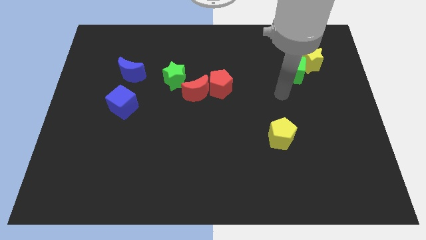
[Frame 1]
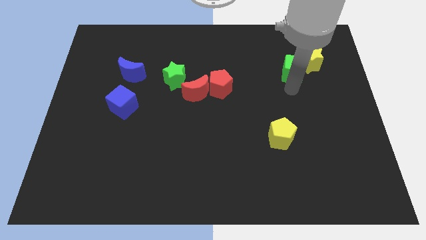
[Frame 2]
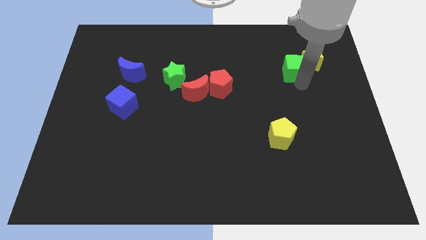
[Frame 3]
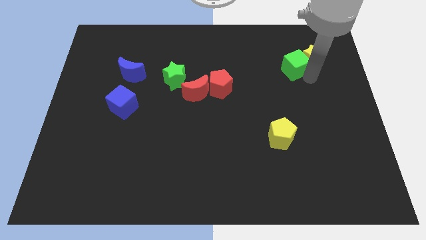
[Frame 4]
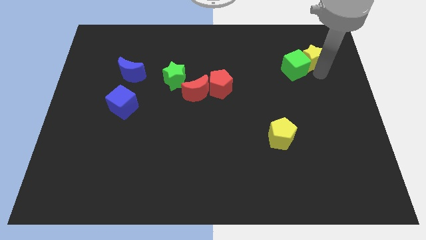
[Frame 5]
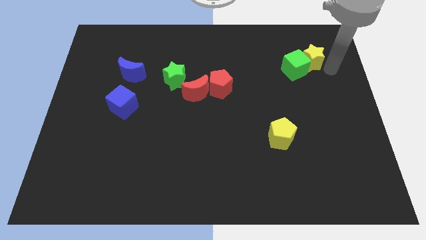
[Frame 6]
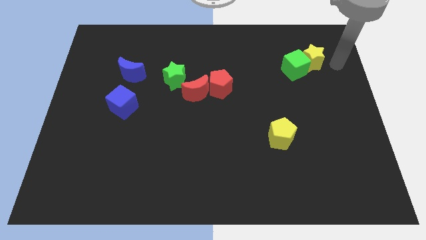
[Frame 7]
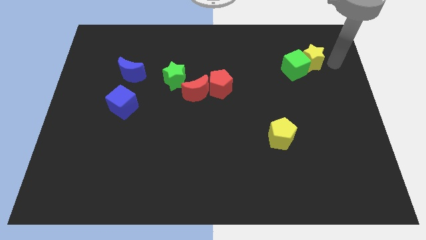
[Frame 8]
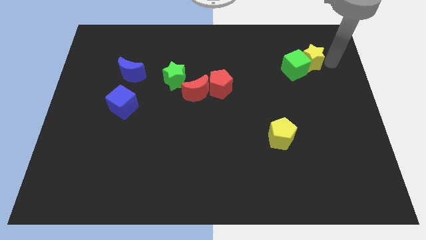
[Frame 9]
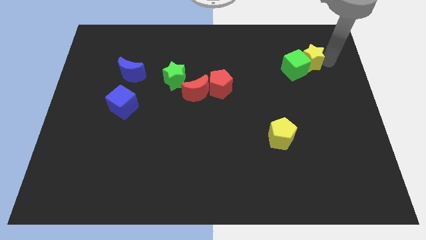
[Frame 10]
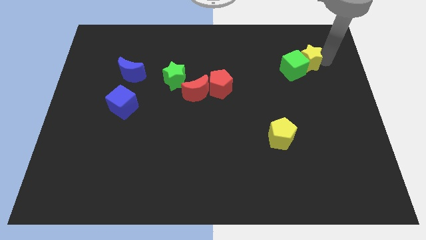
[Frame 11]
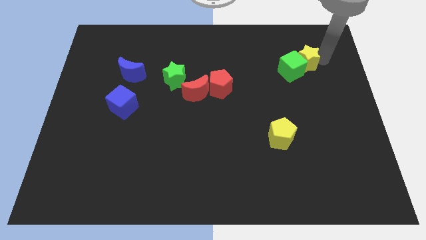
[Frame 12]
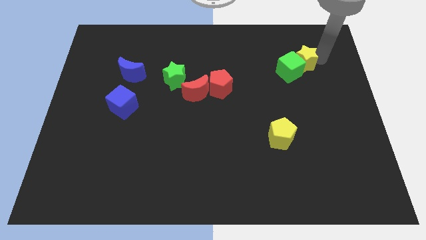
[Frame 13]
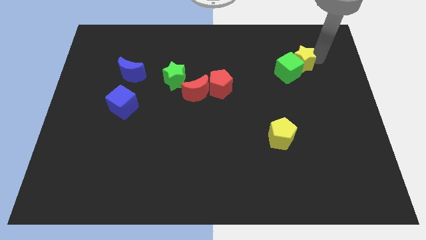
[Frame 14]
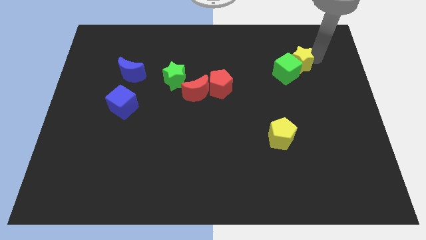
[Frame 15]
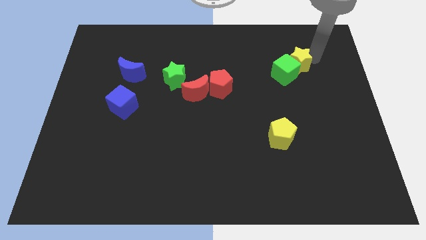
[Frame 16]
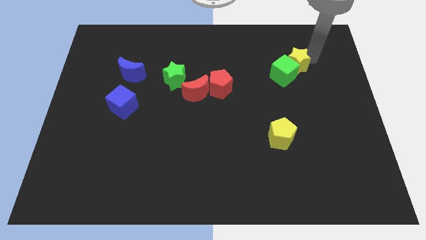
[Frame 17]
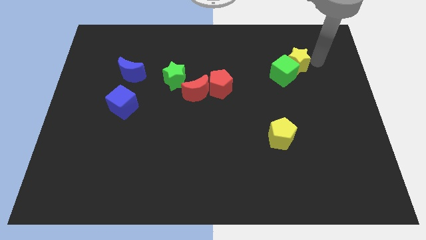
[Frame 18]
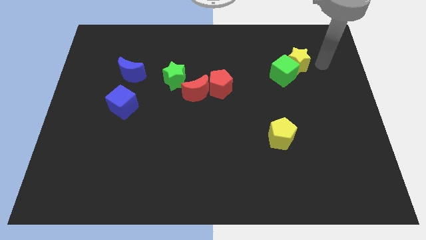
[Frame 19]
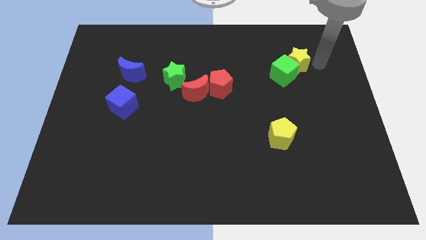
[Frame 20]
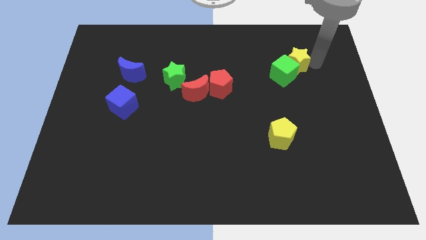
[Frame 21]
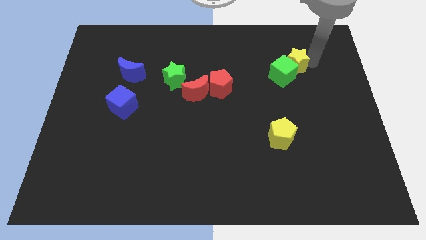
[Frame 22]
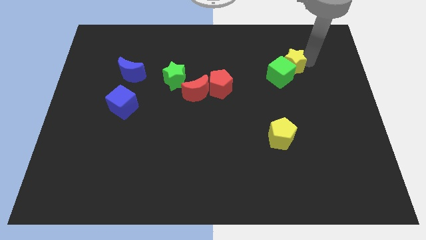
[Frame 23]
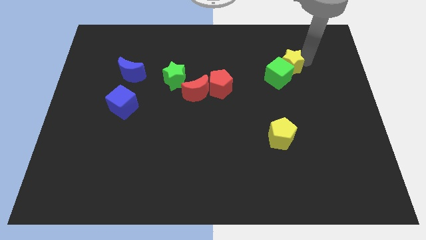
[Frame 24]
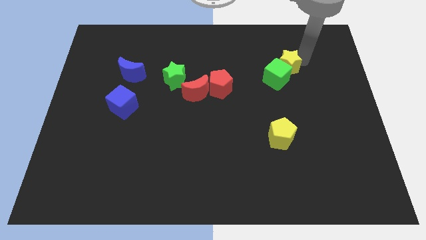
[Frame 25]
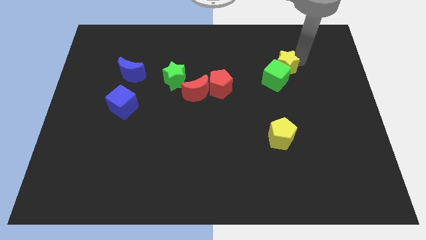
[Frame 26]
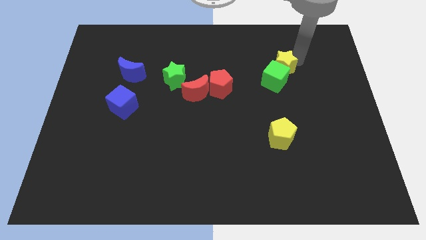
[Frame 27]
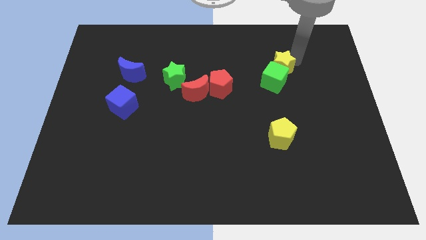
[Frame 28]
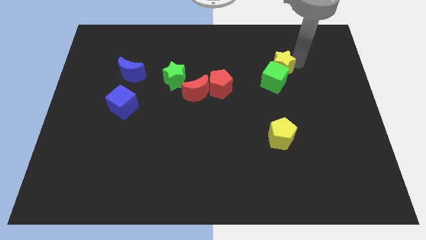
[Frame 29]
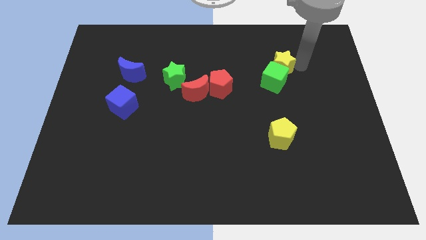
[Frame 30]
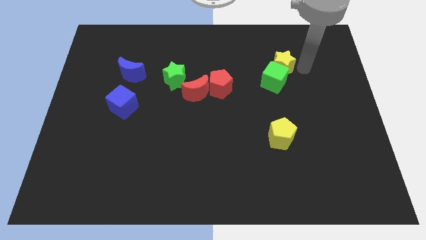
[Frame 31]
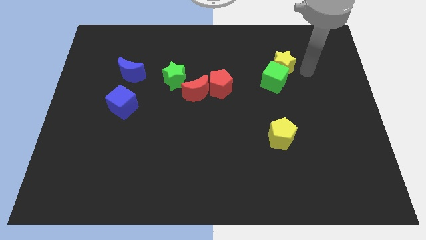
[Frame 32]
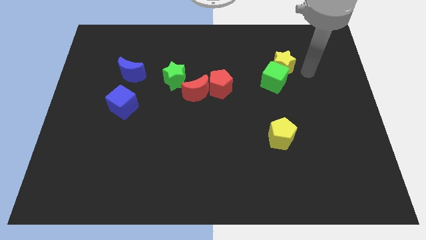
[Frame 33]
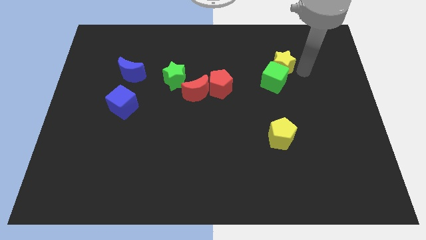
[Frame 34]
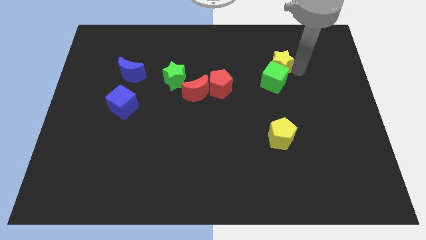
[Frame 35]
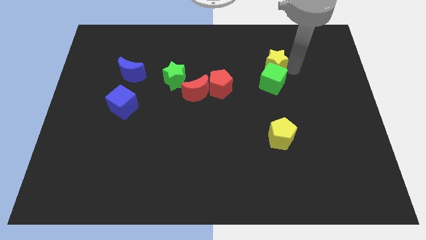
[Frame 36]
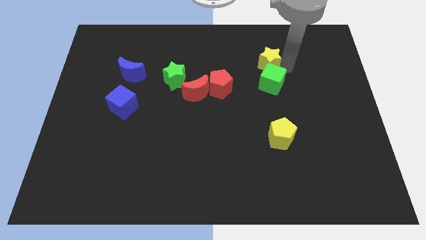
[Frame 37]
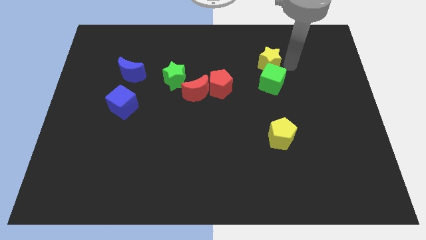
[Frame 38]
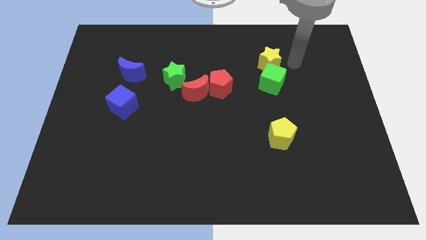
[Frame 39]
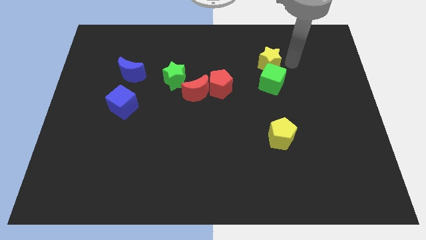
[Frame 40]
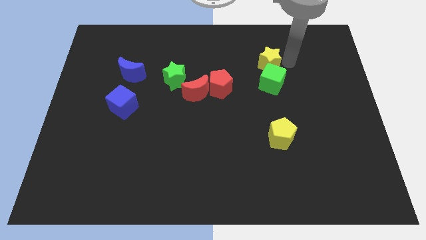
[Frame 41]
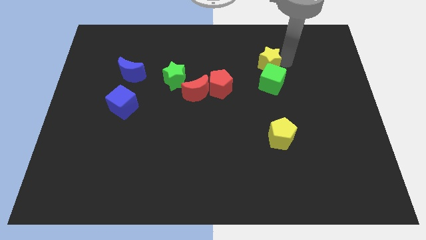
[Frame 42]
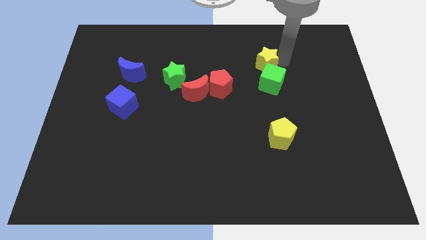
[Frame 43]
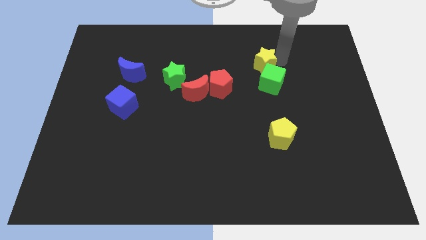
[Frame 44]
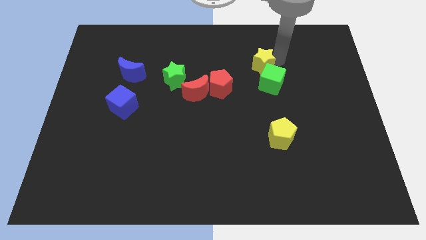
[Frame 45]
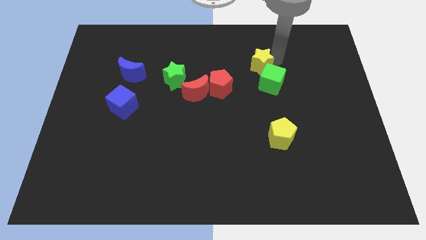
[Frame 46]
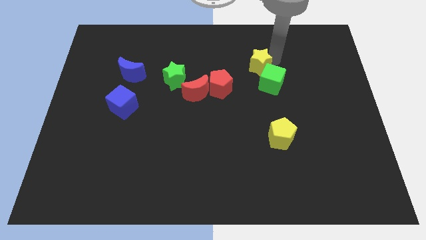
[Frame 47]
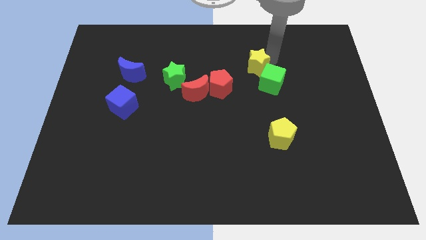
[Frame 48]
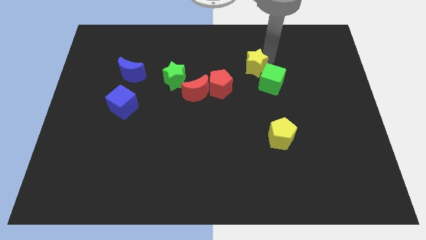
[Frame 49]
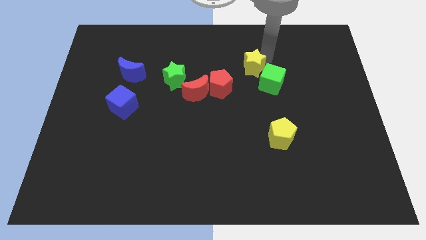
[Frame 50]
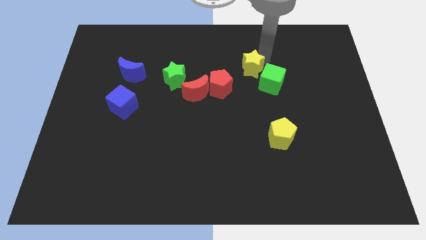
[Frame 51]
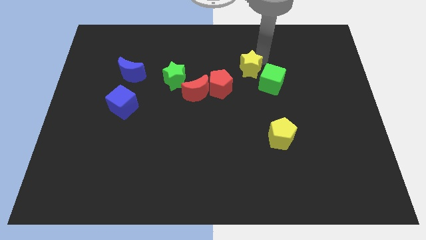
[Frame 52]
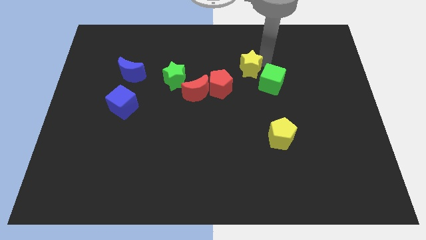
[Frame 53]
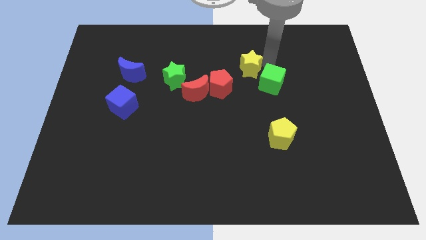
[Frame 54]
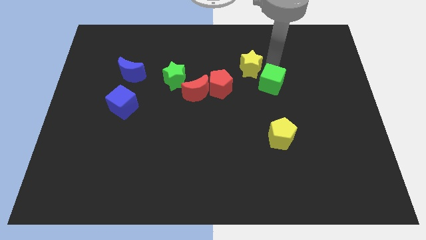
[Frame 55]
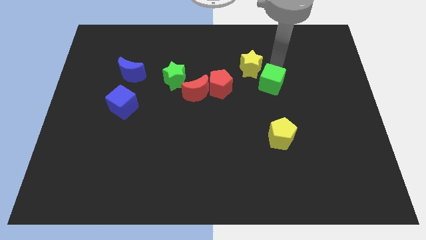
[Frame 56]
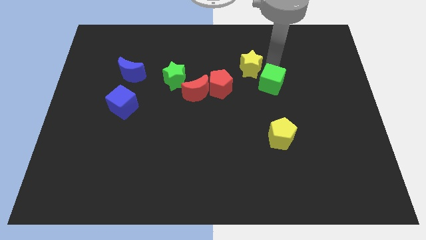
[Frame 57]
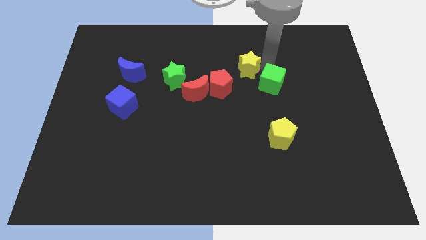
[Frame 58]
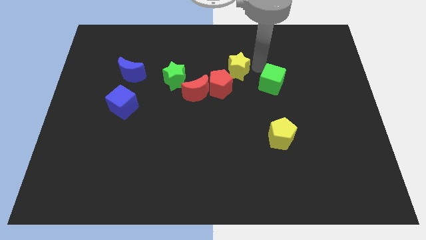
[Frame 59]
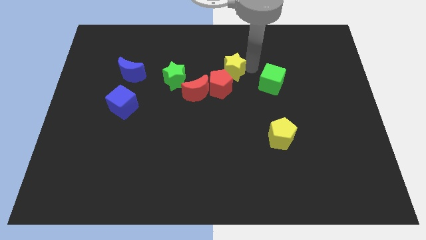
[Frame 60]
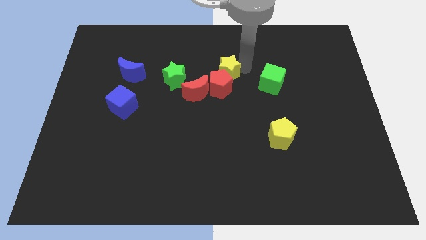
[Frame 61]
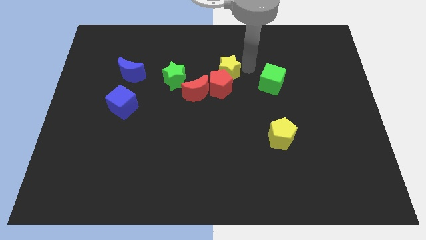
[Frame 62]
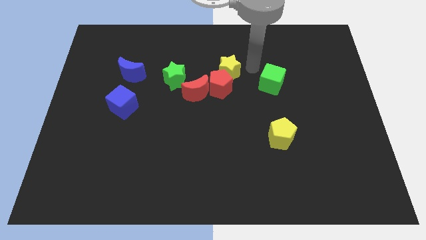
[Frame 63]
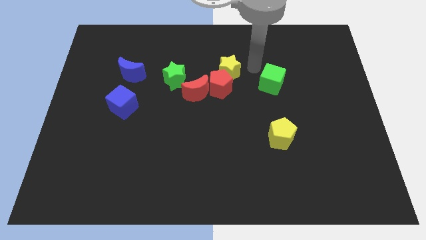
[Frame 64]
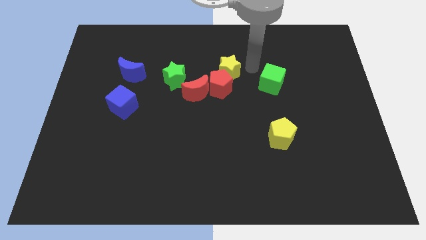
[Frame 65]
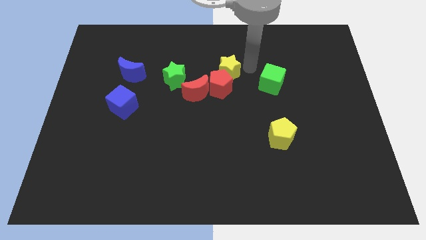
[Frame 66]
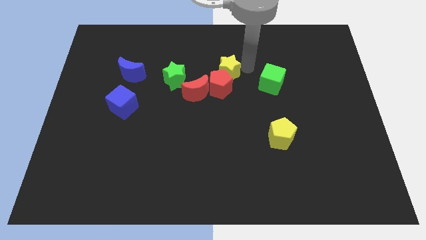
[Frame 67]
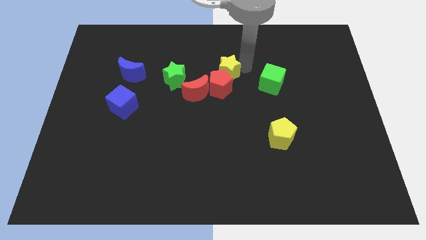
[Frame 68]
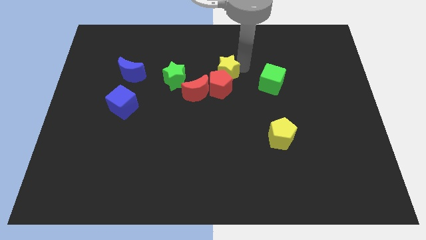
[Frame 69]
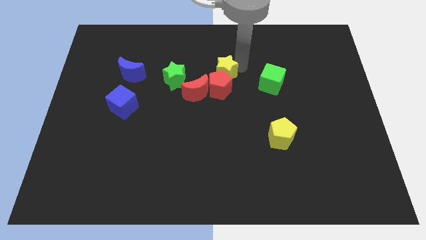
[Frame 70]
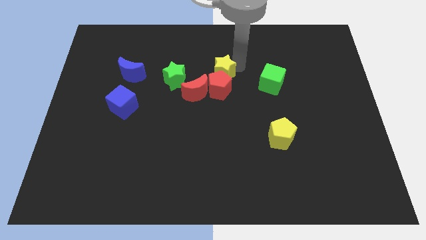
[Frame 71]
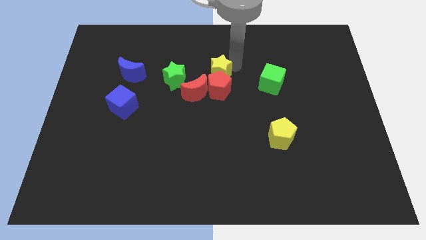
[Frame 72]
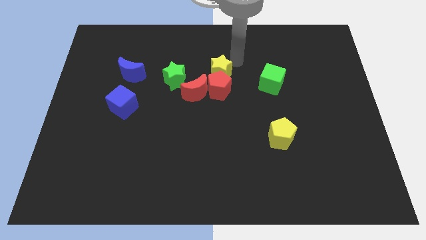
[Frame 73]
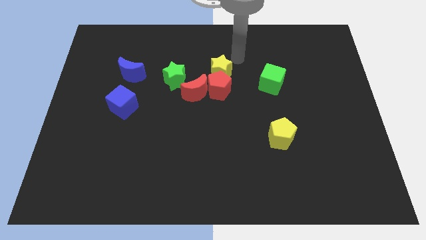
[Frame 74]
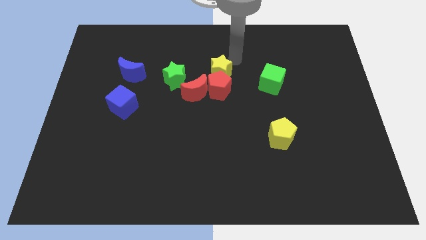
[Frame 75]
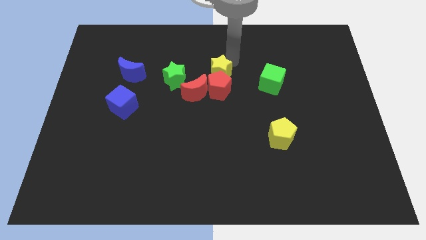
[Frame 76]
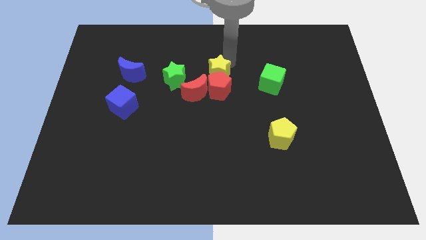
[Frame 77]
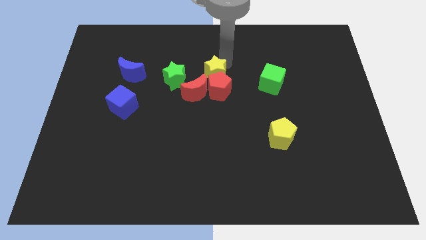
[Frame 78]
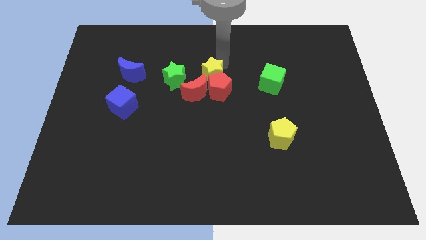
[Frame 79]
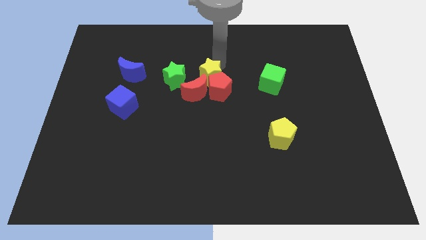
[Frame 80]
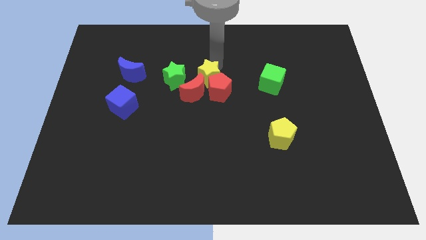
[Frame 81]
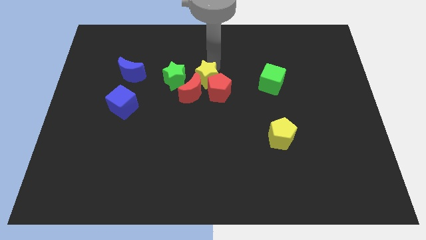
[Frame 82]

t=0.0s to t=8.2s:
push the yellow star next to the red moon
